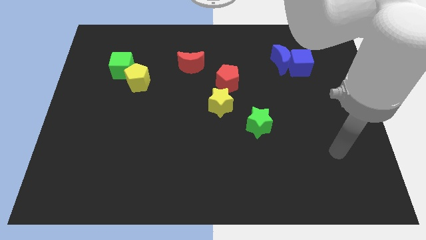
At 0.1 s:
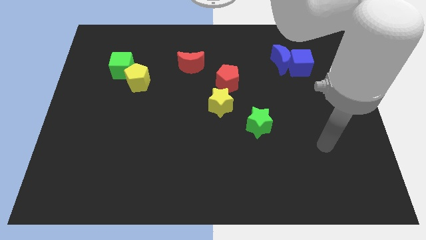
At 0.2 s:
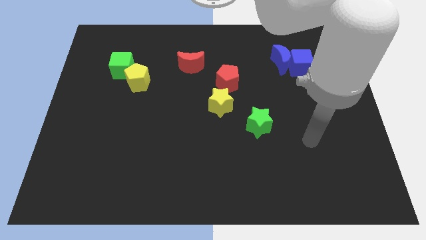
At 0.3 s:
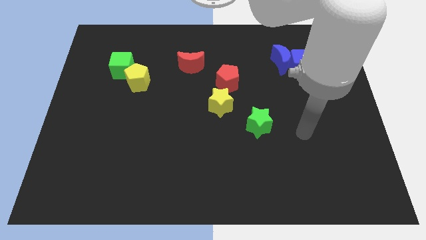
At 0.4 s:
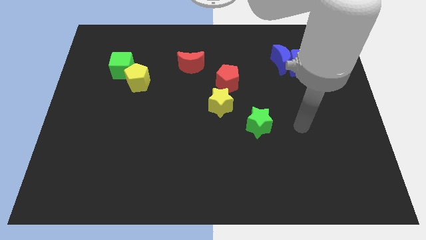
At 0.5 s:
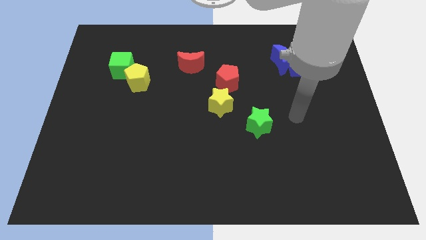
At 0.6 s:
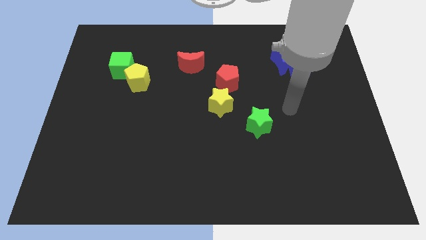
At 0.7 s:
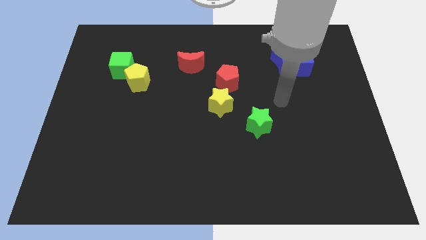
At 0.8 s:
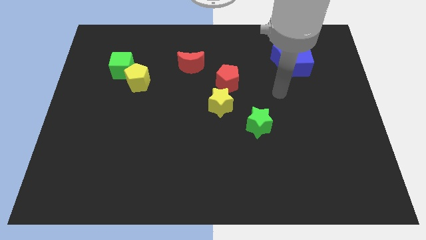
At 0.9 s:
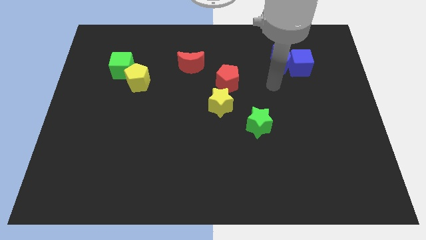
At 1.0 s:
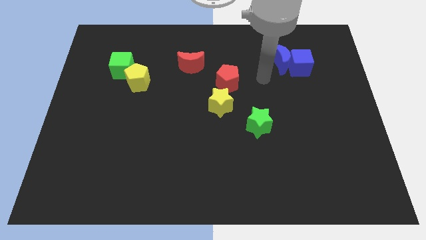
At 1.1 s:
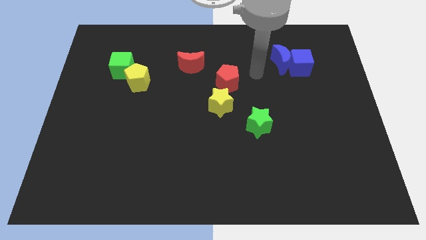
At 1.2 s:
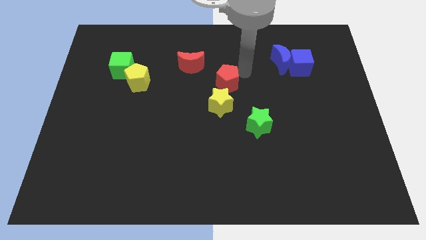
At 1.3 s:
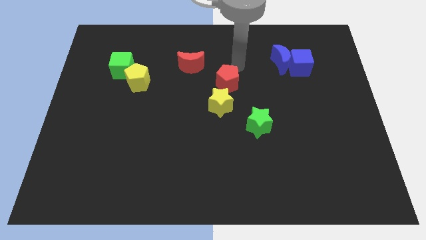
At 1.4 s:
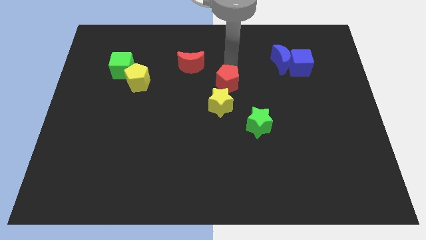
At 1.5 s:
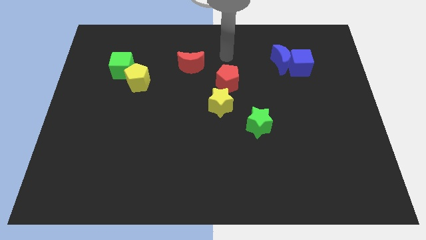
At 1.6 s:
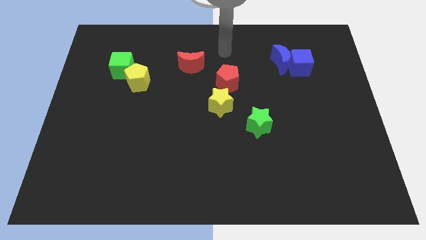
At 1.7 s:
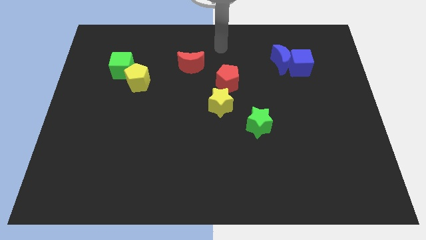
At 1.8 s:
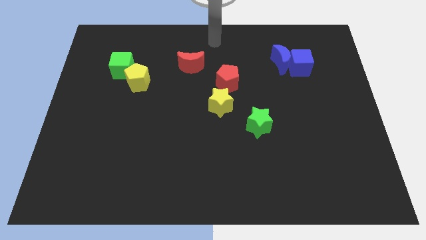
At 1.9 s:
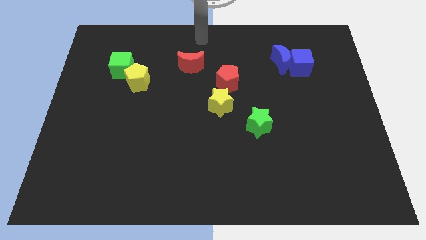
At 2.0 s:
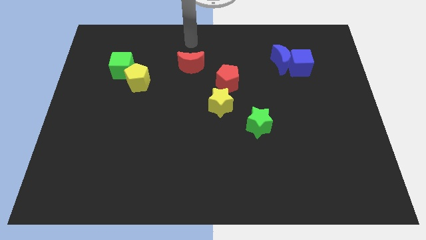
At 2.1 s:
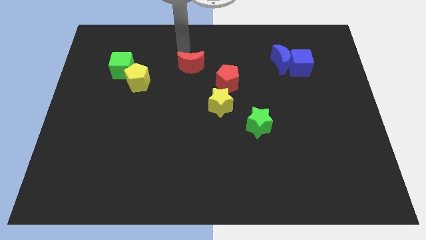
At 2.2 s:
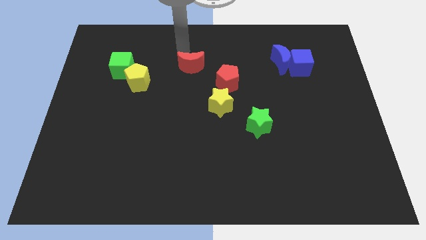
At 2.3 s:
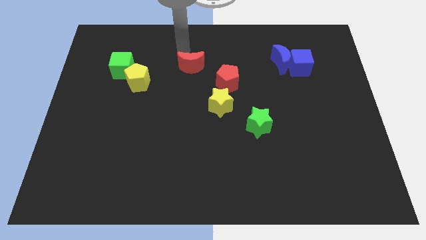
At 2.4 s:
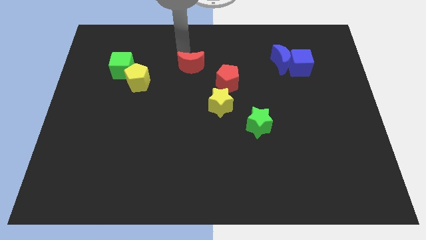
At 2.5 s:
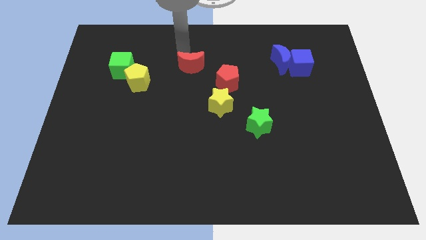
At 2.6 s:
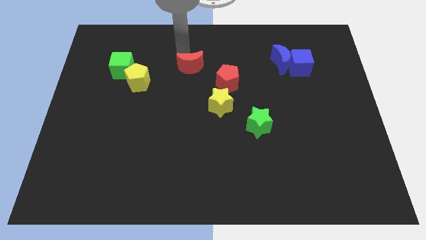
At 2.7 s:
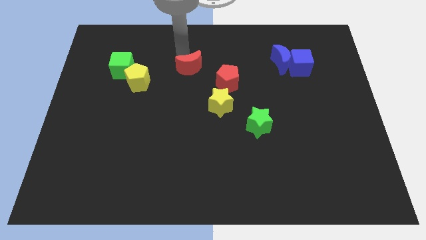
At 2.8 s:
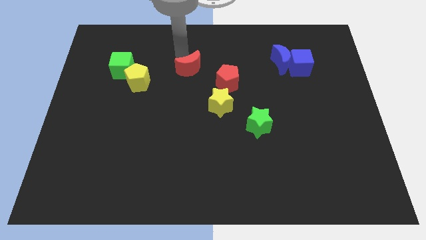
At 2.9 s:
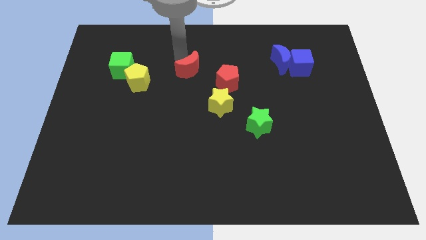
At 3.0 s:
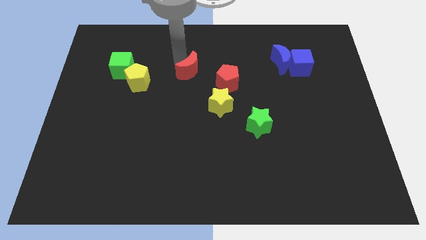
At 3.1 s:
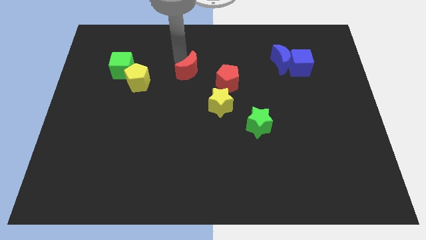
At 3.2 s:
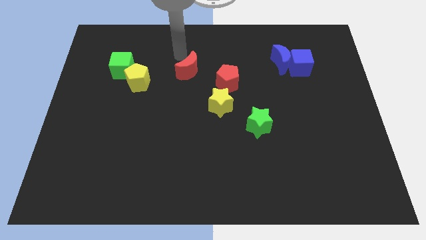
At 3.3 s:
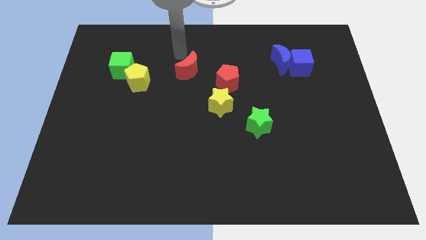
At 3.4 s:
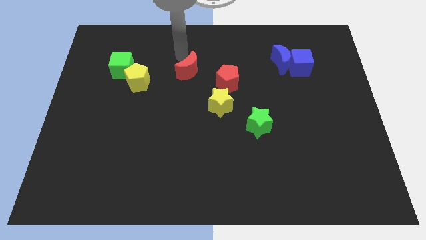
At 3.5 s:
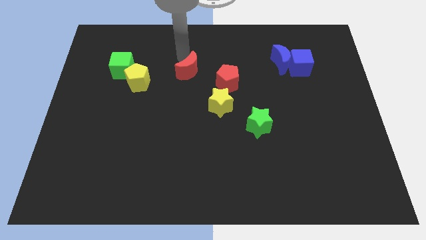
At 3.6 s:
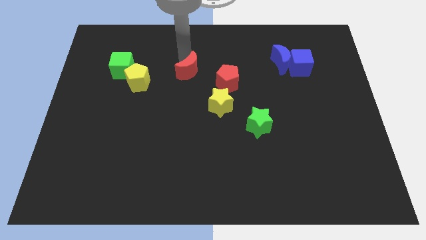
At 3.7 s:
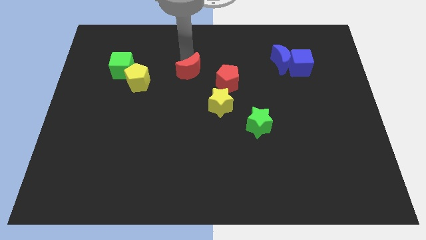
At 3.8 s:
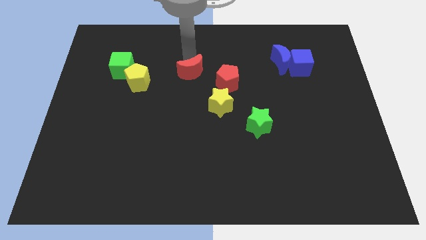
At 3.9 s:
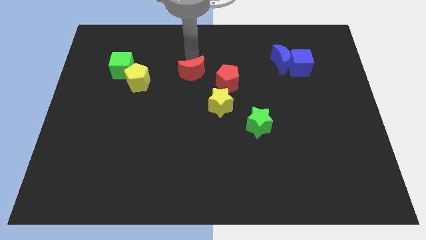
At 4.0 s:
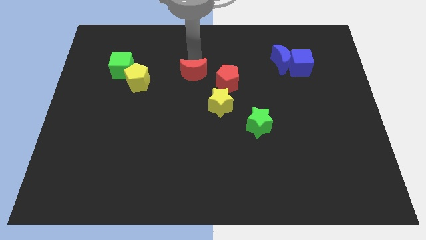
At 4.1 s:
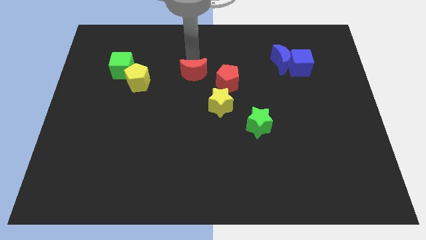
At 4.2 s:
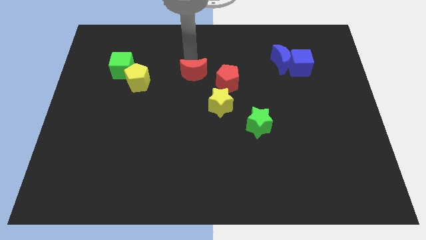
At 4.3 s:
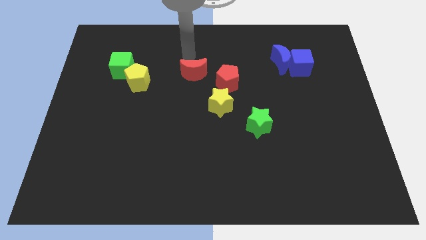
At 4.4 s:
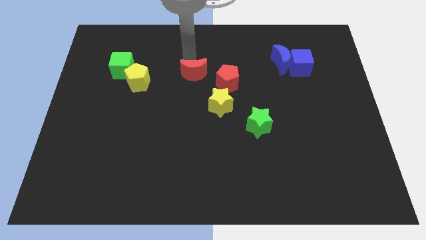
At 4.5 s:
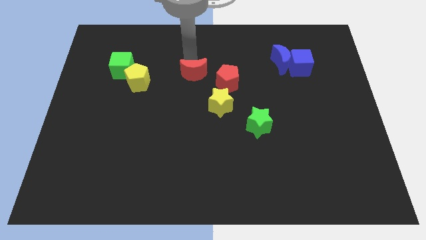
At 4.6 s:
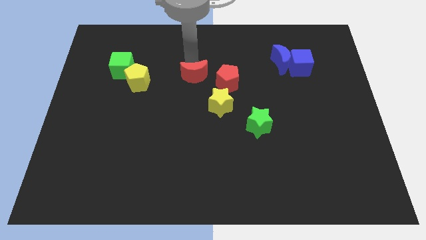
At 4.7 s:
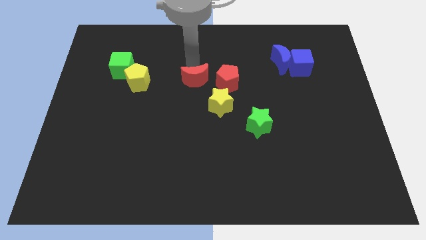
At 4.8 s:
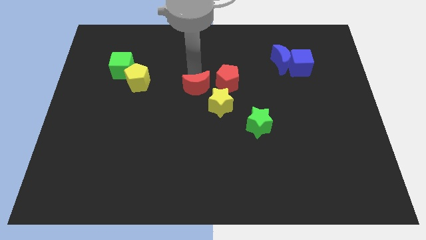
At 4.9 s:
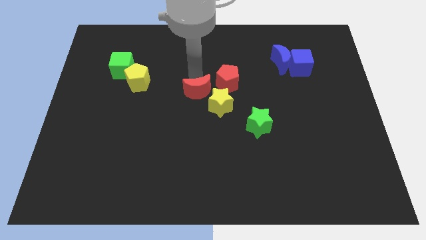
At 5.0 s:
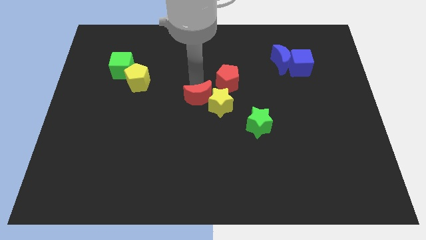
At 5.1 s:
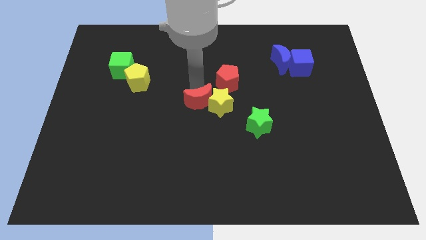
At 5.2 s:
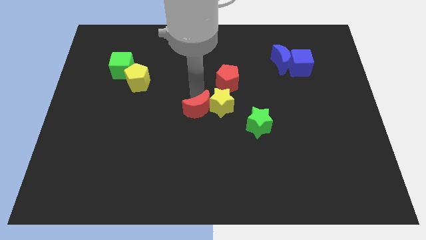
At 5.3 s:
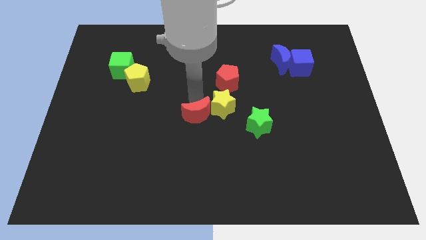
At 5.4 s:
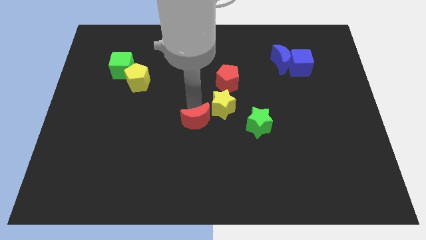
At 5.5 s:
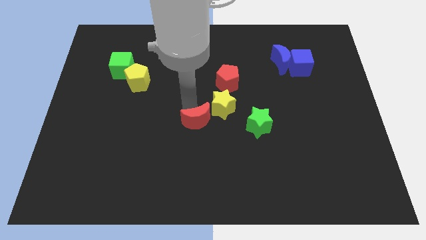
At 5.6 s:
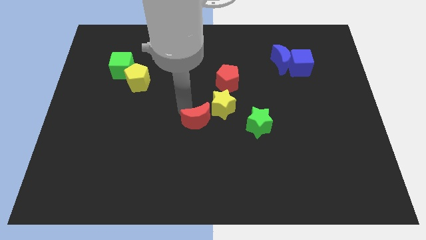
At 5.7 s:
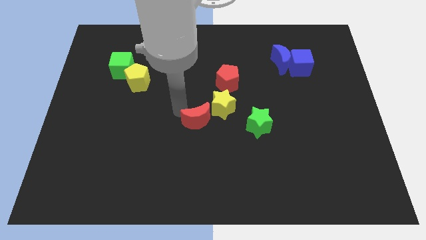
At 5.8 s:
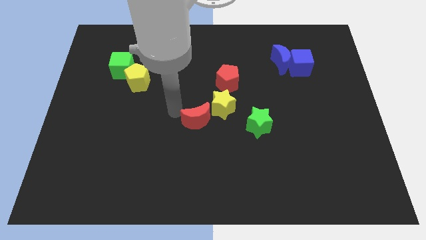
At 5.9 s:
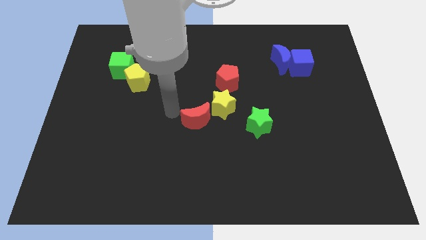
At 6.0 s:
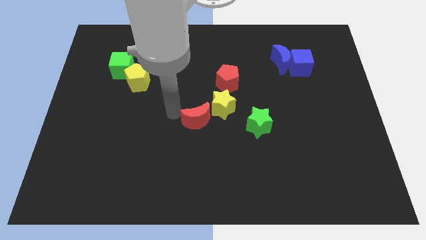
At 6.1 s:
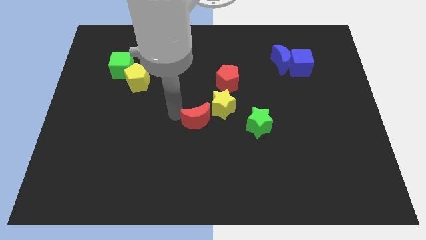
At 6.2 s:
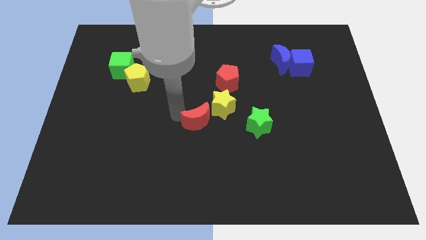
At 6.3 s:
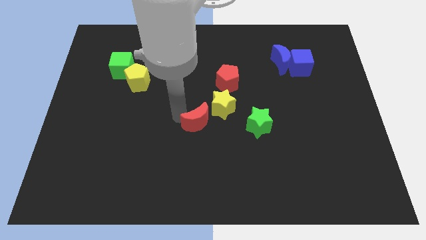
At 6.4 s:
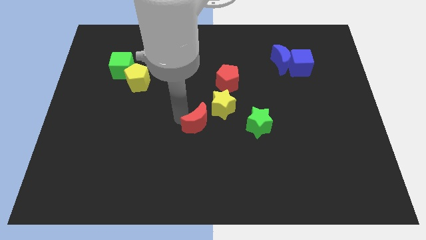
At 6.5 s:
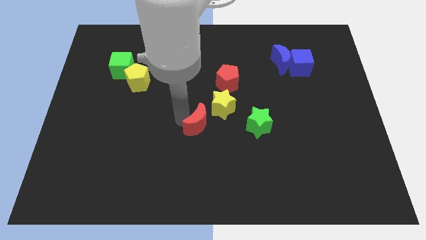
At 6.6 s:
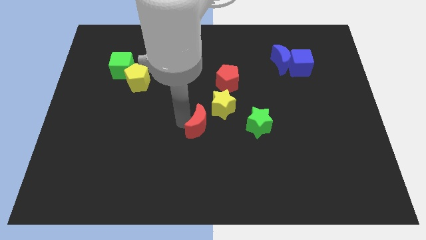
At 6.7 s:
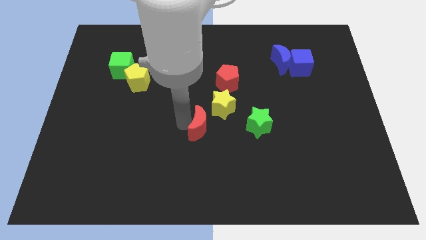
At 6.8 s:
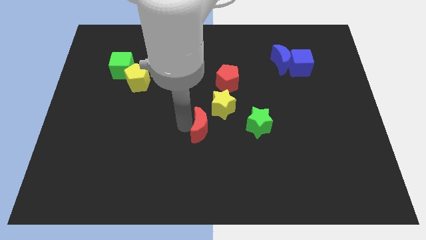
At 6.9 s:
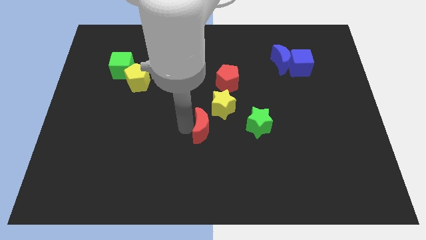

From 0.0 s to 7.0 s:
put the red moon below the yellow star

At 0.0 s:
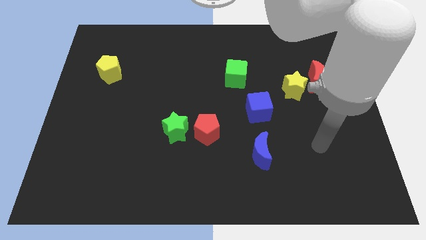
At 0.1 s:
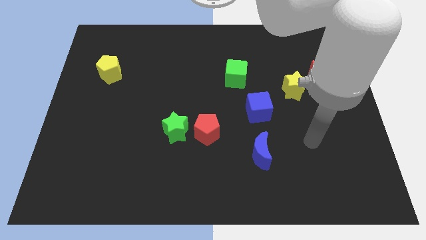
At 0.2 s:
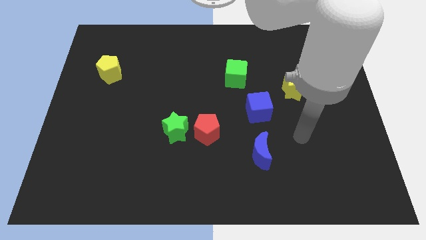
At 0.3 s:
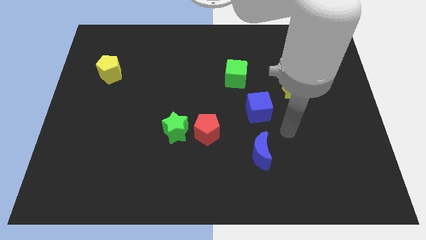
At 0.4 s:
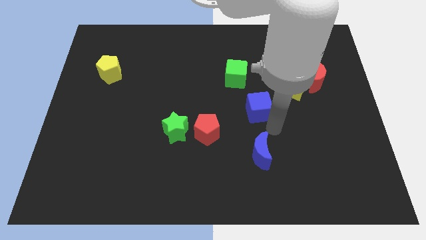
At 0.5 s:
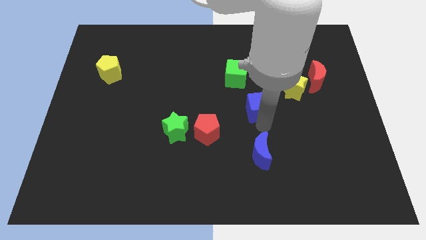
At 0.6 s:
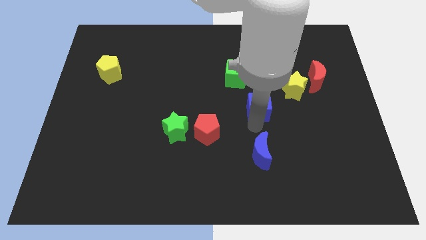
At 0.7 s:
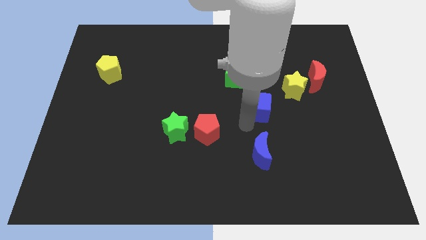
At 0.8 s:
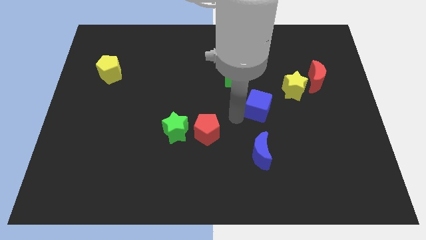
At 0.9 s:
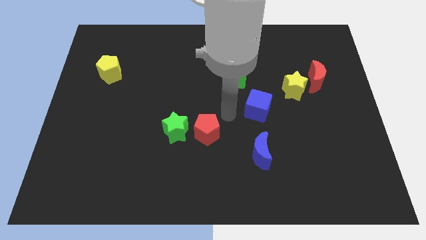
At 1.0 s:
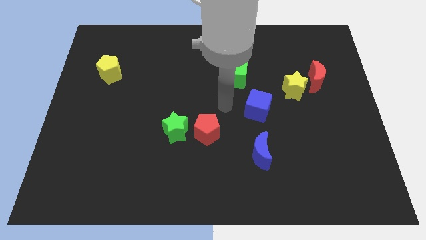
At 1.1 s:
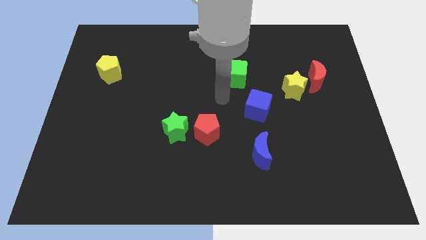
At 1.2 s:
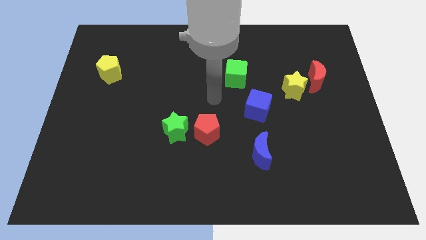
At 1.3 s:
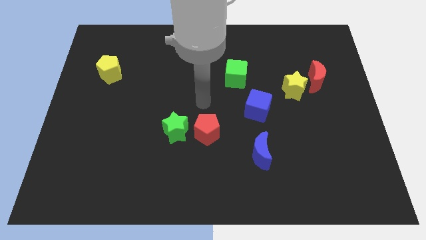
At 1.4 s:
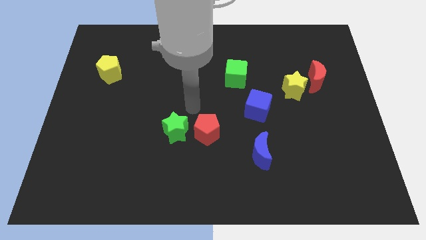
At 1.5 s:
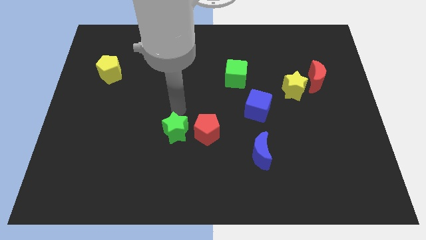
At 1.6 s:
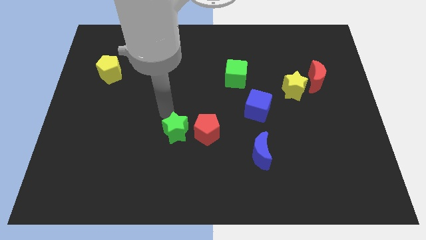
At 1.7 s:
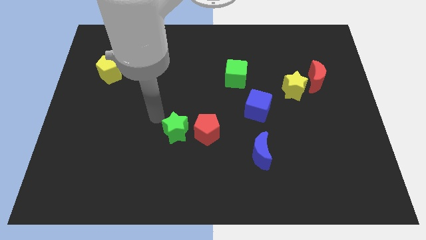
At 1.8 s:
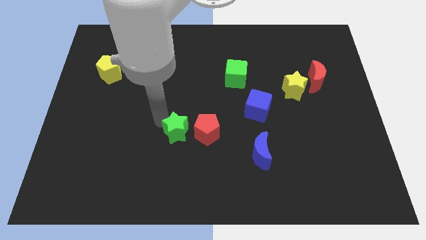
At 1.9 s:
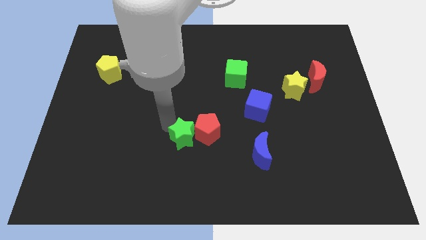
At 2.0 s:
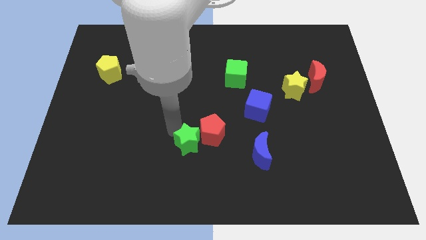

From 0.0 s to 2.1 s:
move the green star just left of the blue moon
